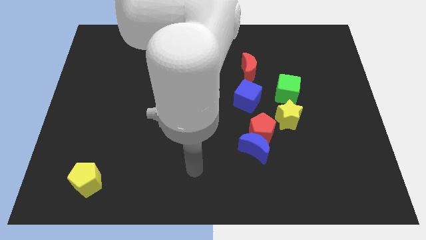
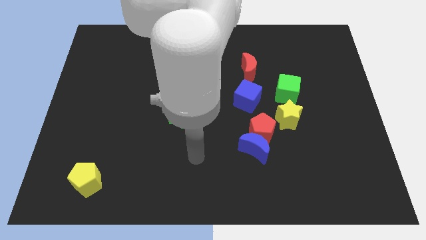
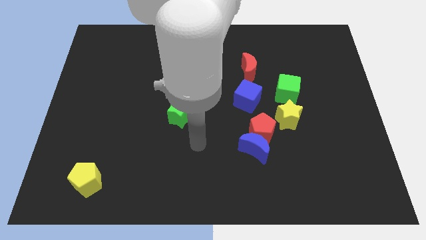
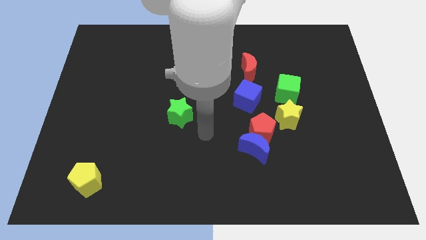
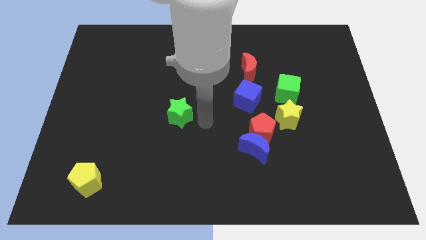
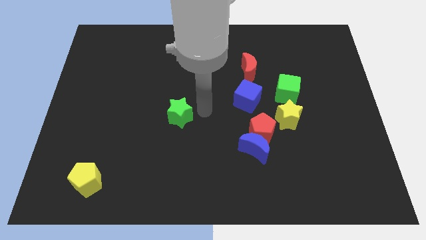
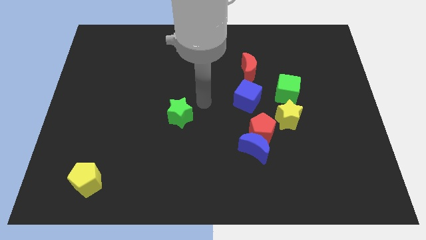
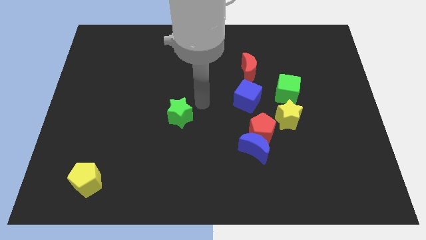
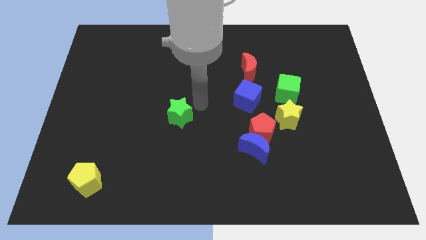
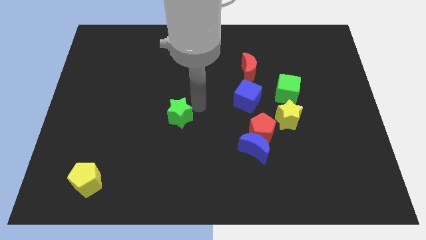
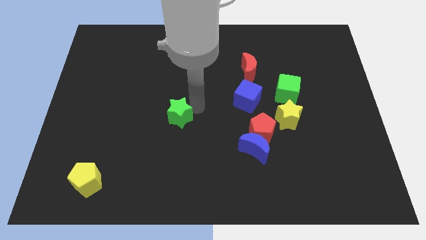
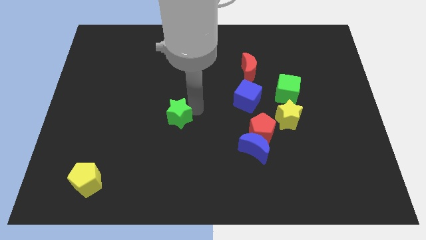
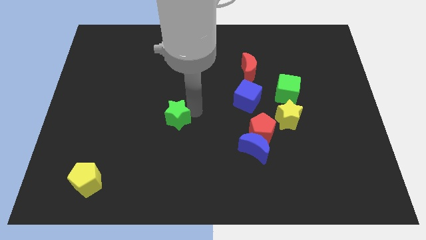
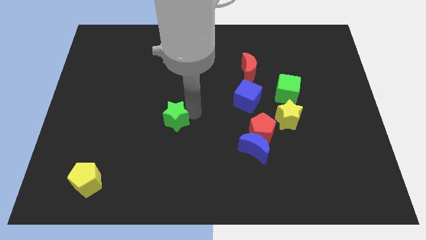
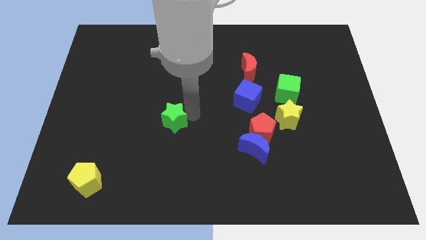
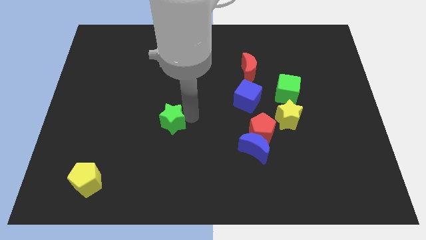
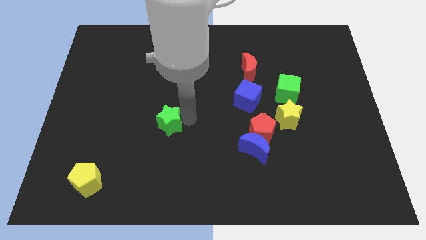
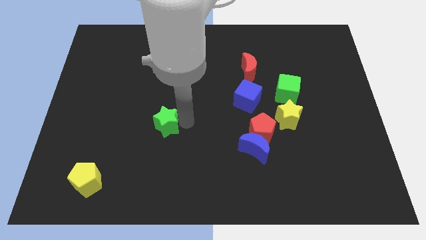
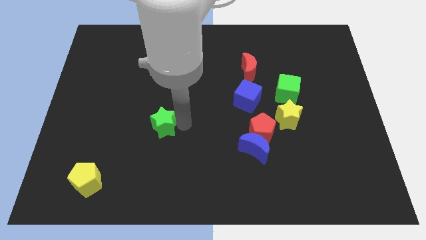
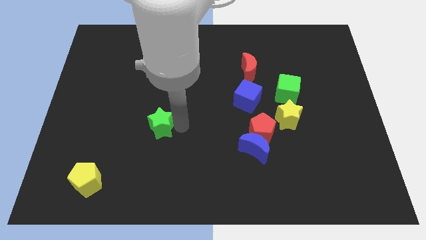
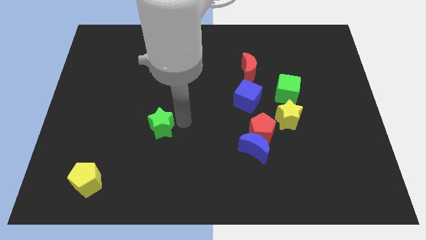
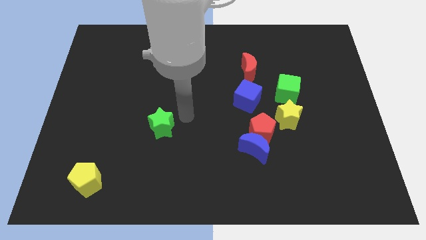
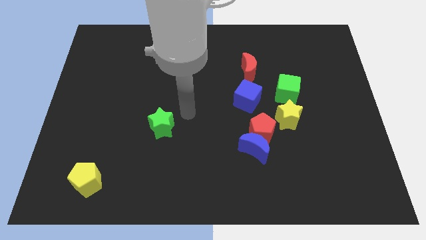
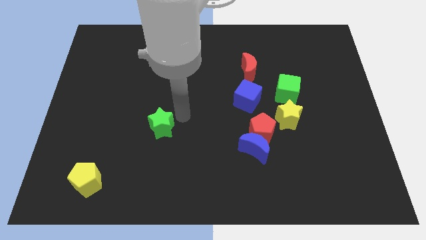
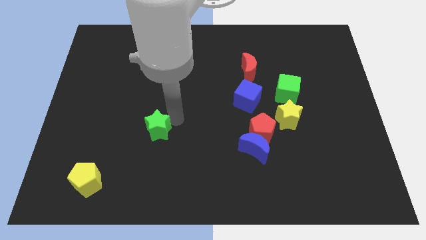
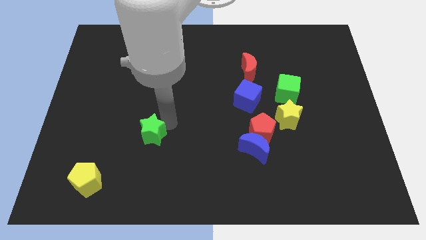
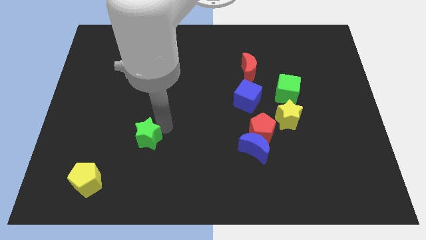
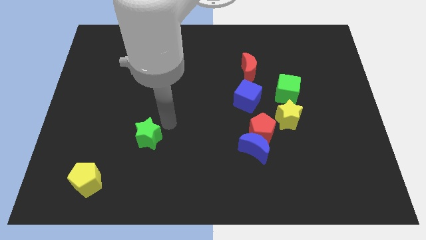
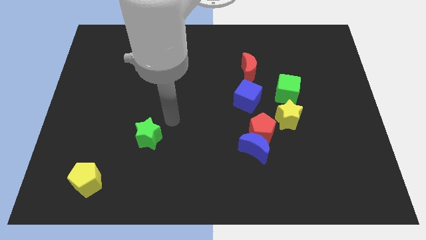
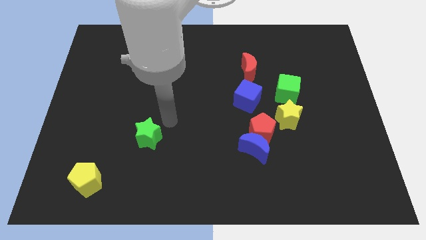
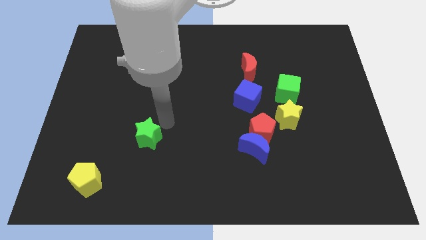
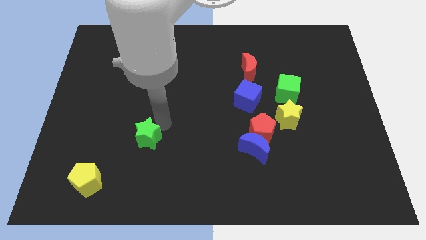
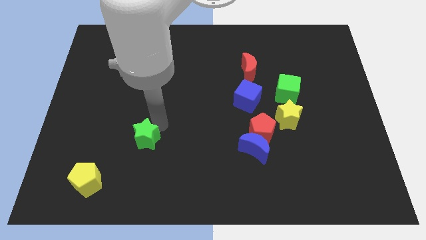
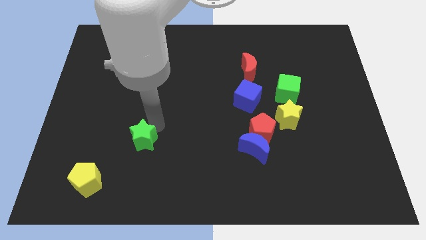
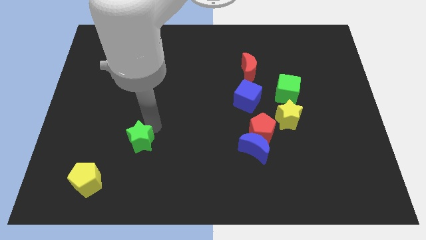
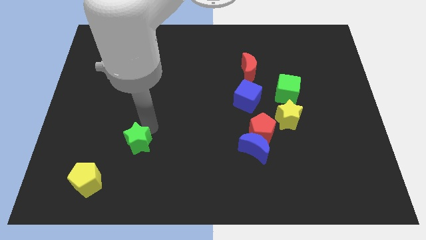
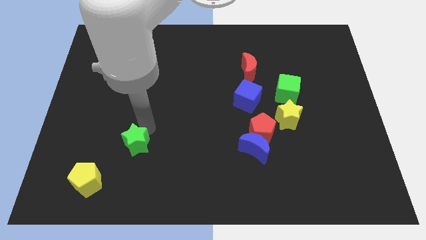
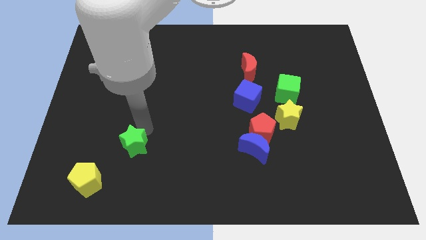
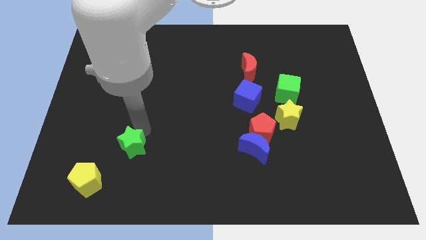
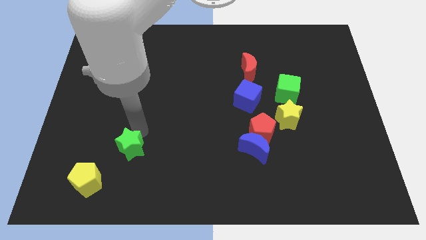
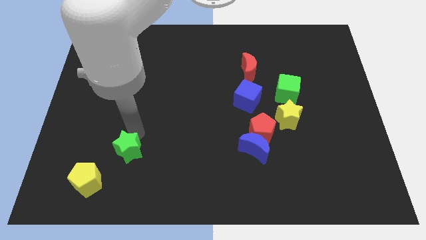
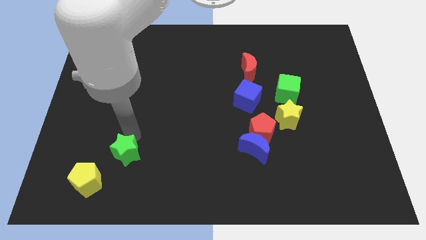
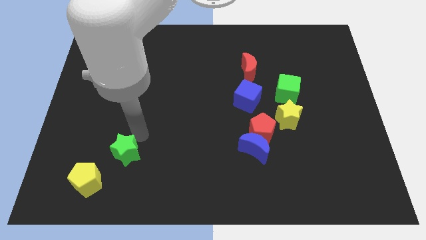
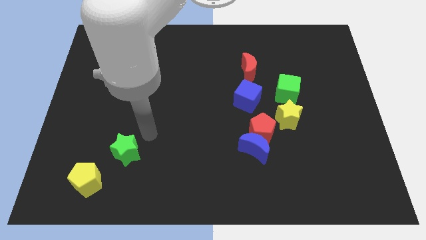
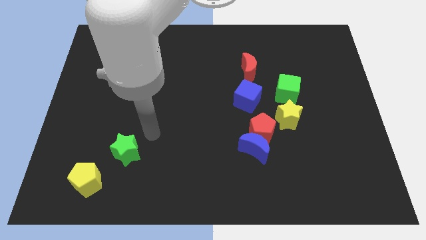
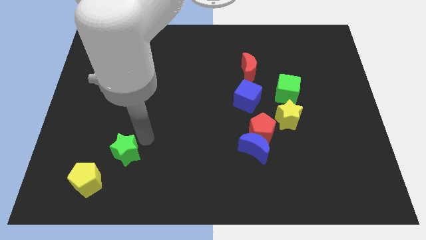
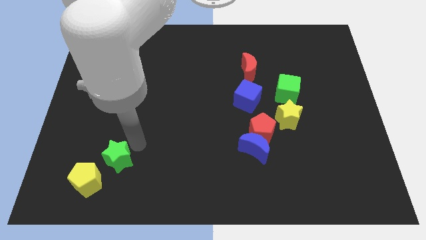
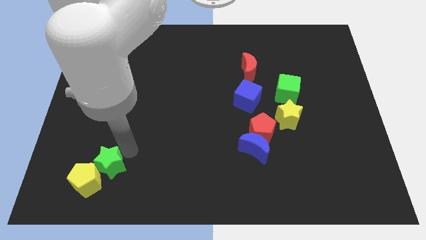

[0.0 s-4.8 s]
move the green star to the yellow pentagon

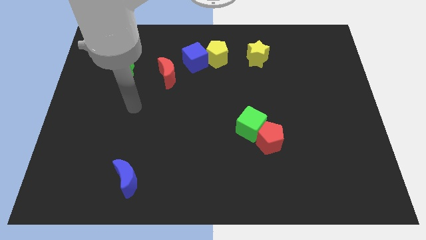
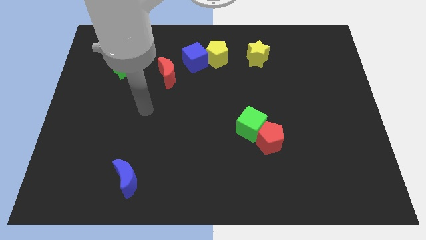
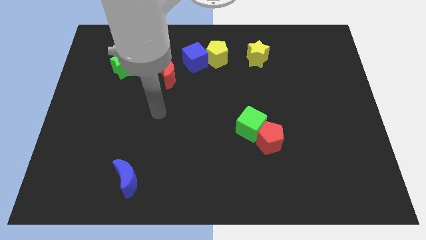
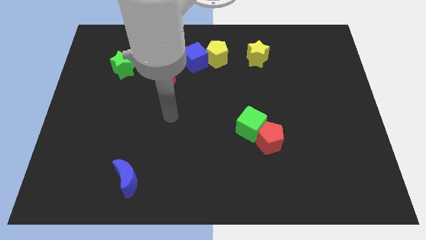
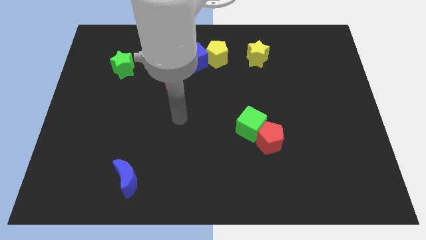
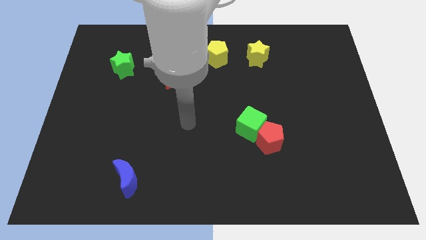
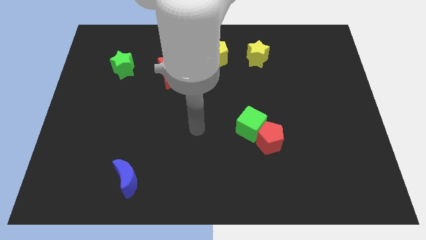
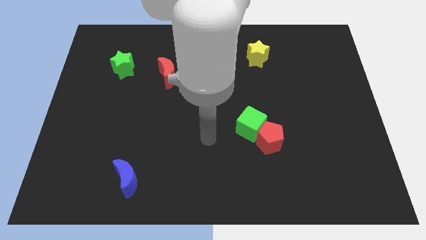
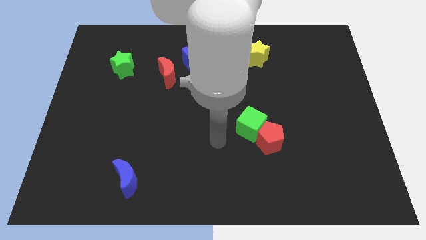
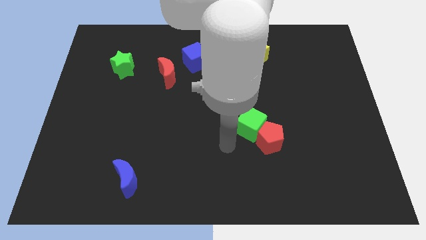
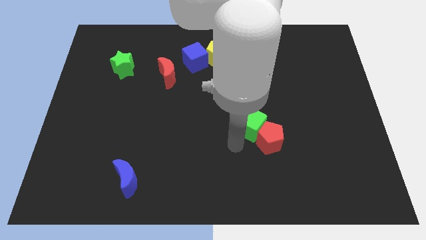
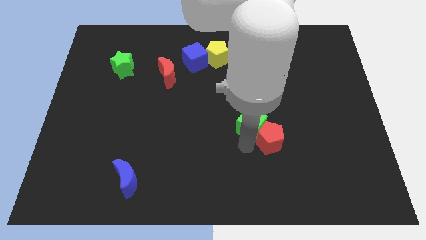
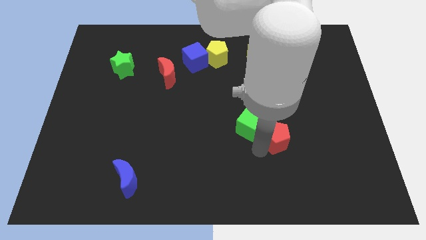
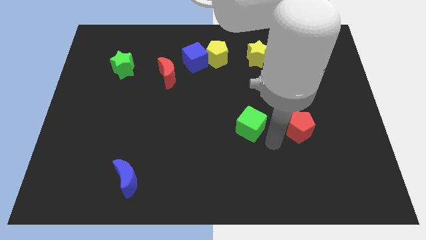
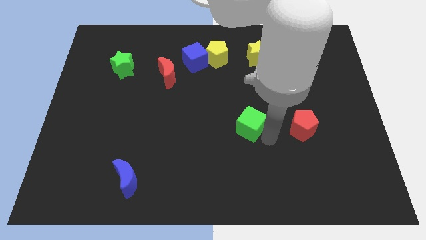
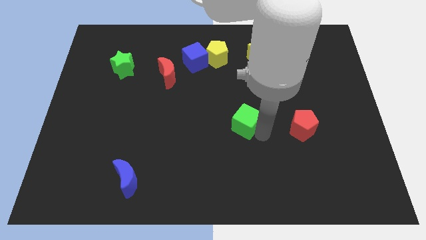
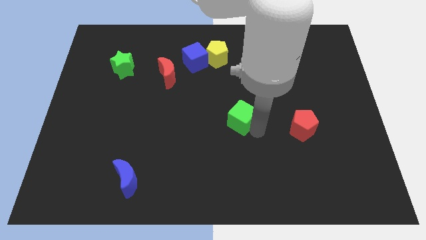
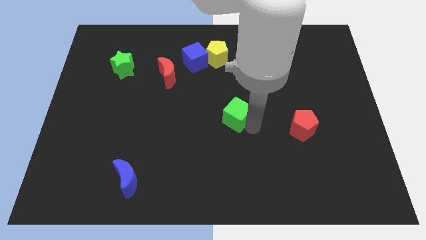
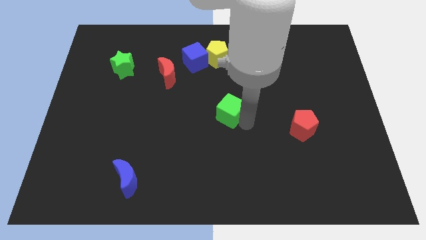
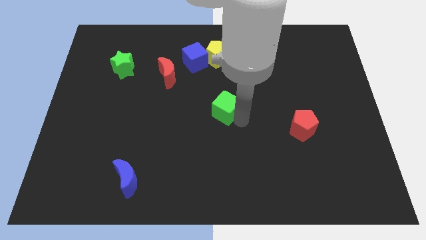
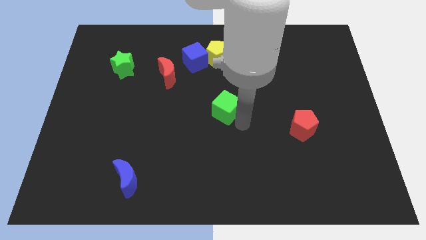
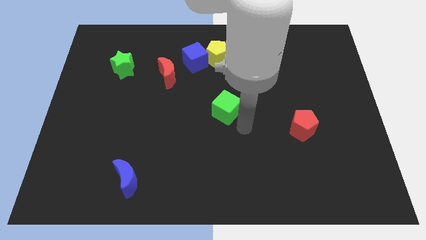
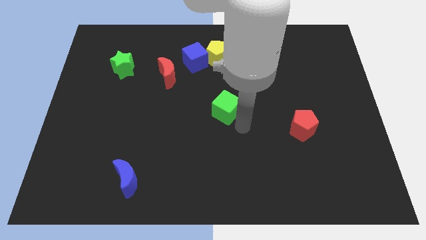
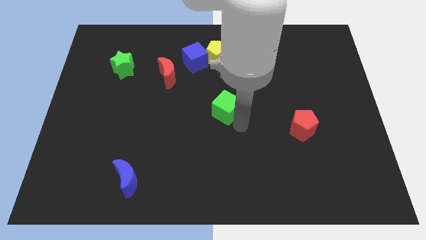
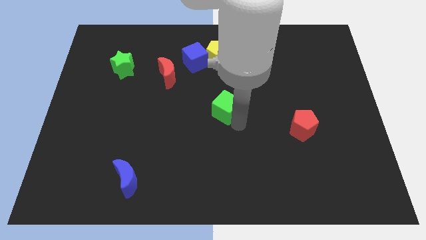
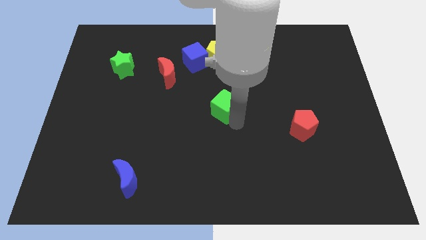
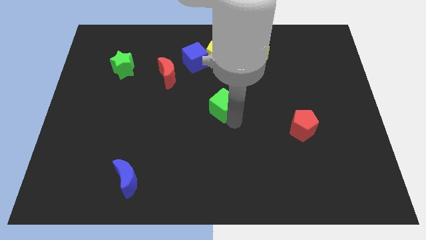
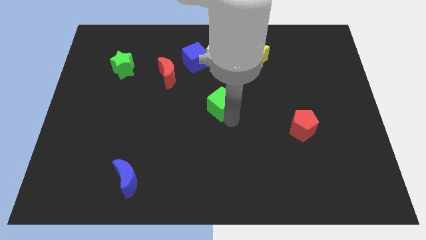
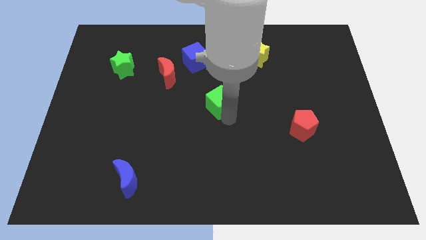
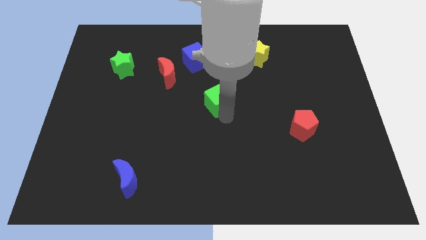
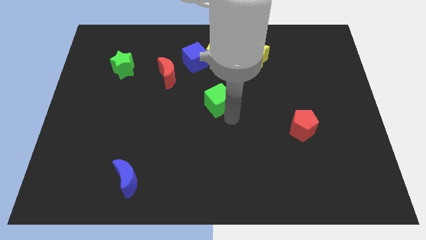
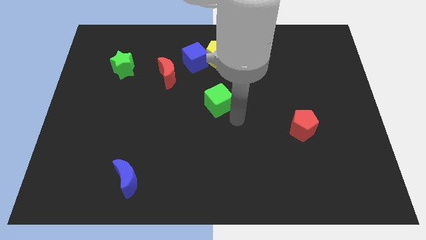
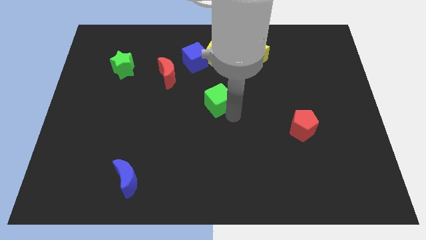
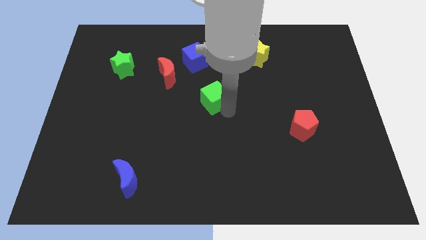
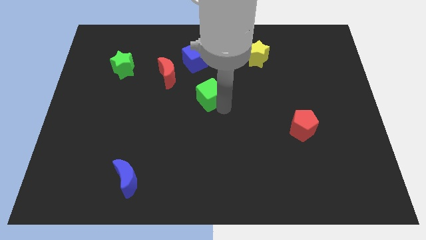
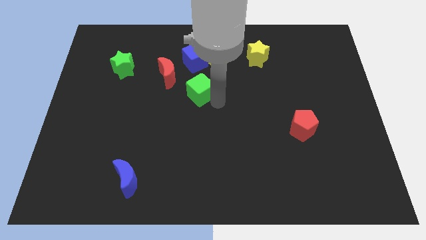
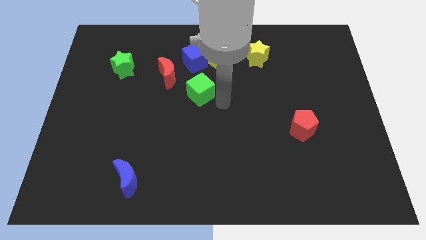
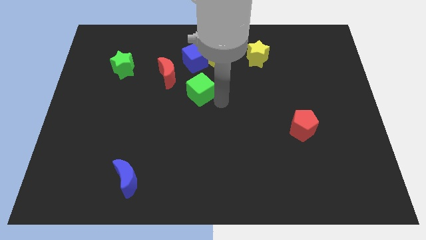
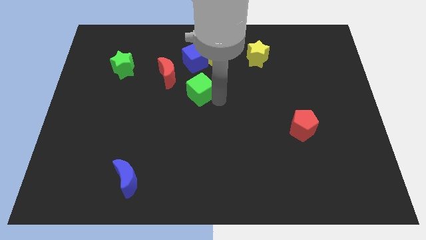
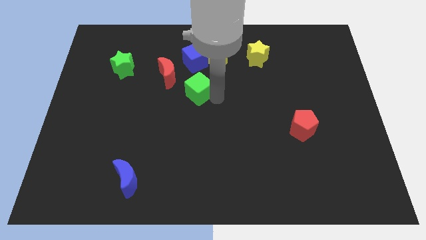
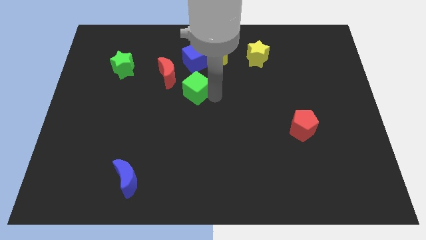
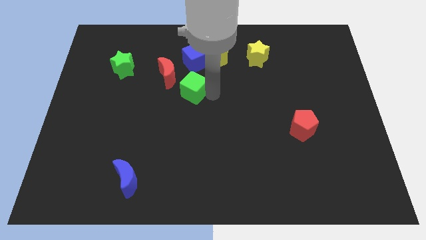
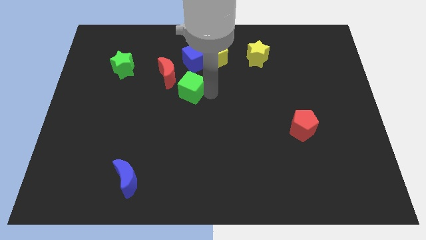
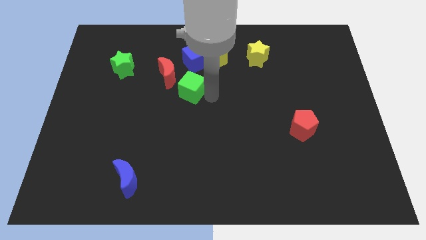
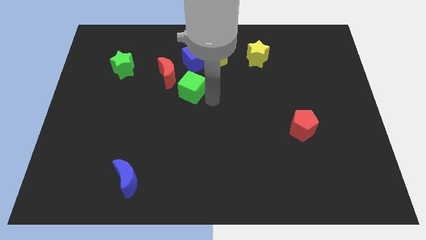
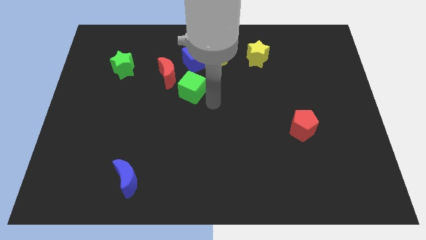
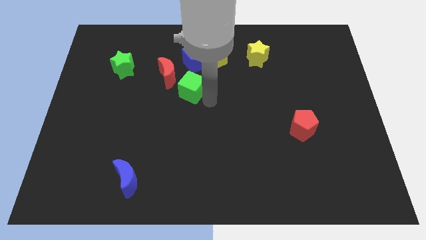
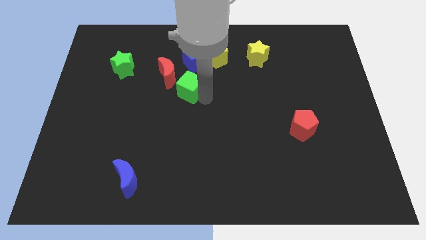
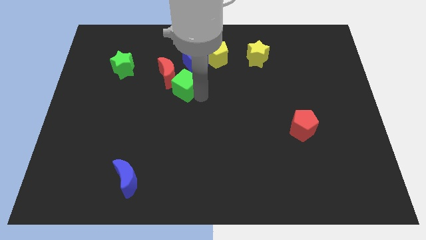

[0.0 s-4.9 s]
move the green cube next to the red moon
